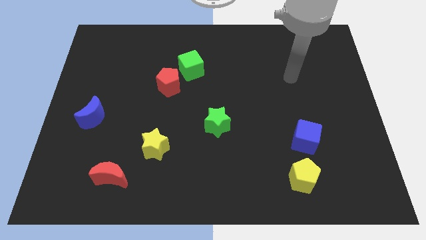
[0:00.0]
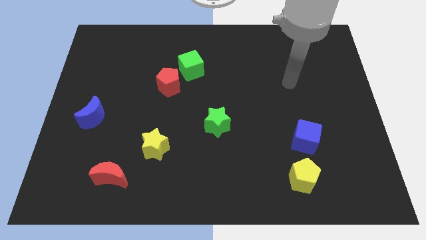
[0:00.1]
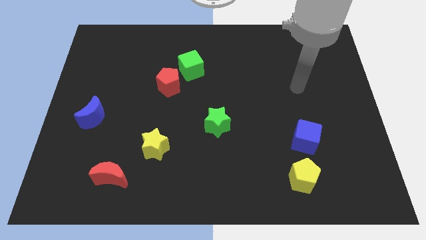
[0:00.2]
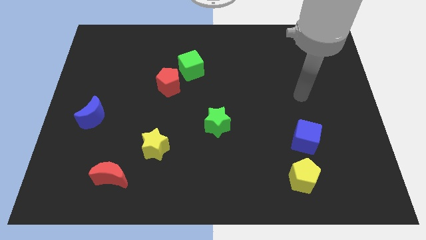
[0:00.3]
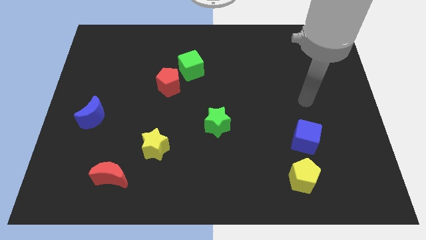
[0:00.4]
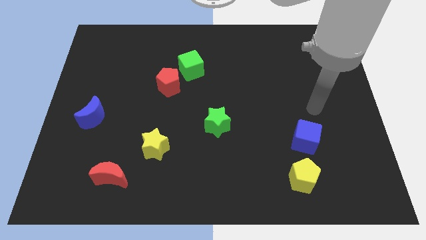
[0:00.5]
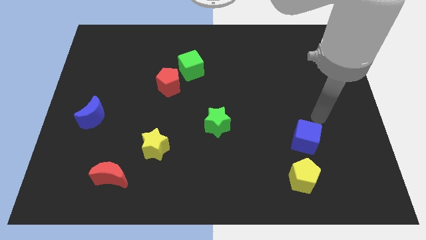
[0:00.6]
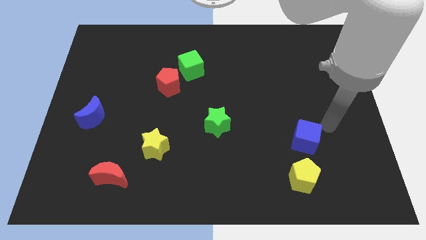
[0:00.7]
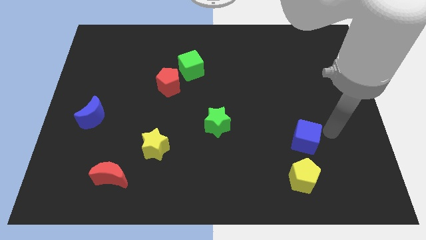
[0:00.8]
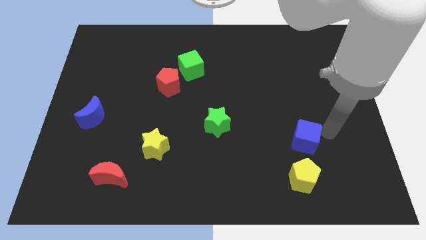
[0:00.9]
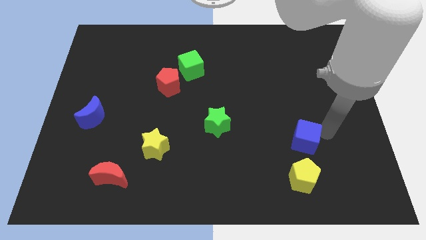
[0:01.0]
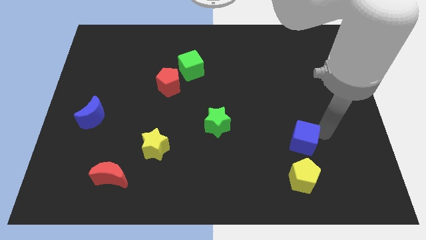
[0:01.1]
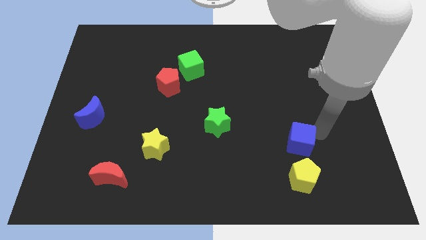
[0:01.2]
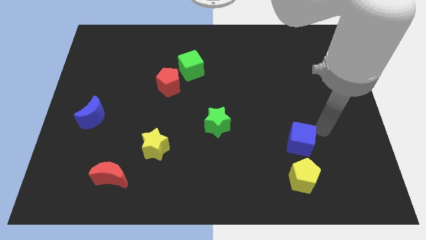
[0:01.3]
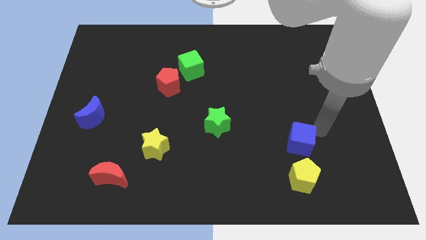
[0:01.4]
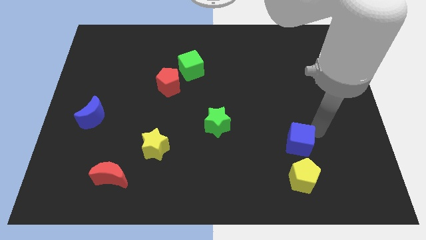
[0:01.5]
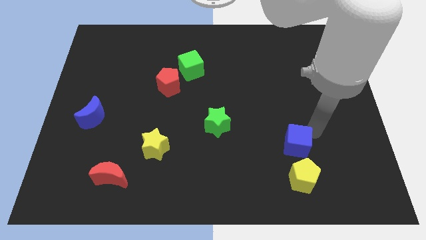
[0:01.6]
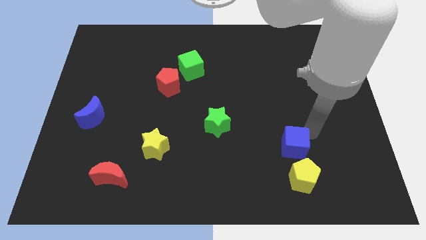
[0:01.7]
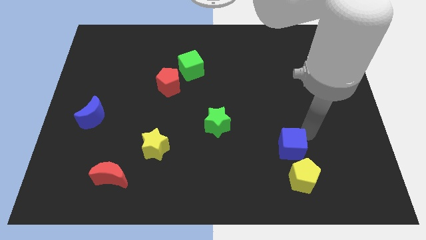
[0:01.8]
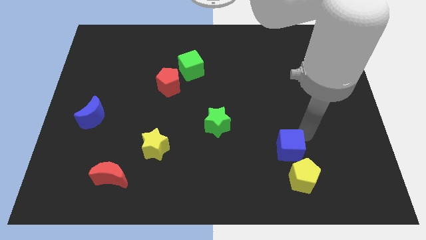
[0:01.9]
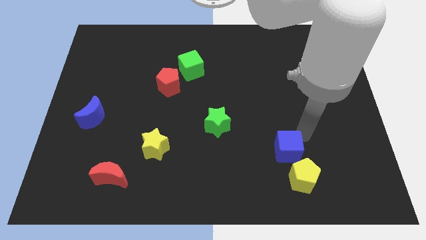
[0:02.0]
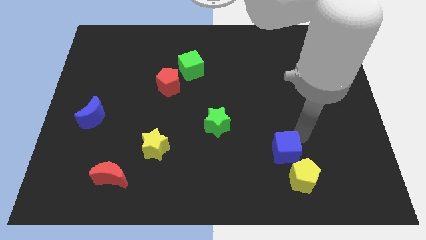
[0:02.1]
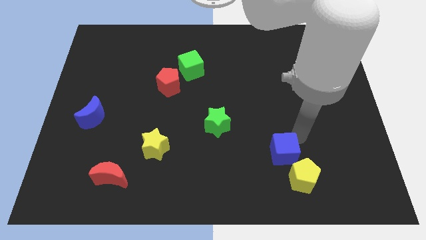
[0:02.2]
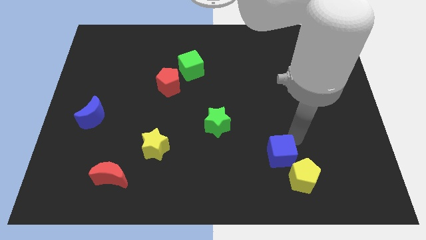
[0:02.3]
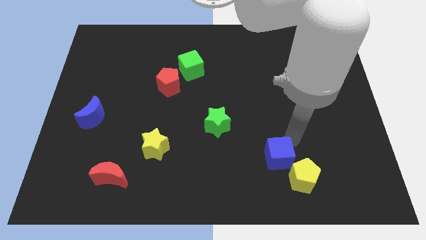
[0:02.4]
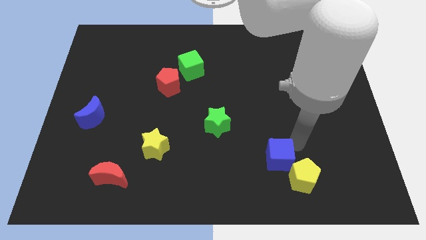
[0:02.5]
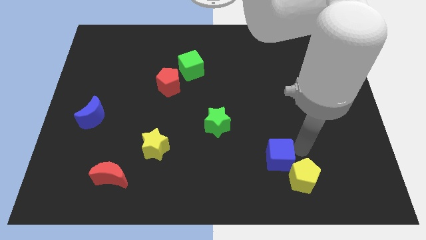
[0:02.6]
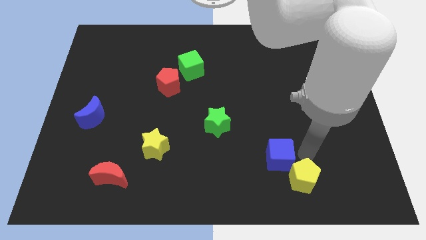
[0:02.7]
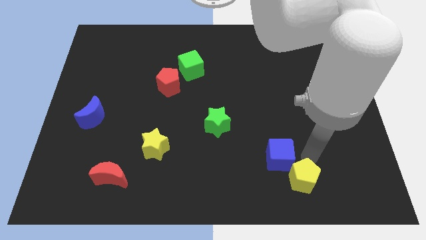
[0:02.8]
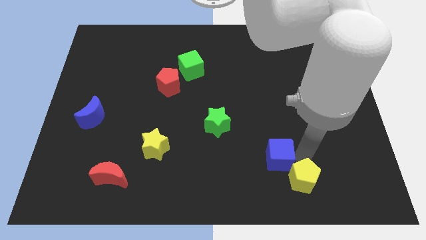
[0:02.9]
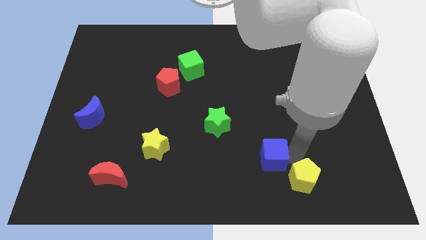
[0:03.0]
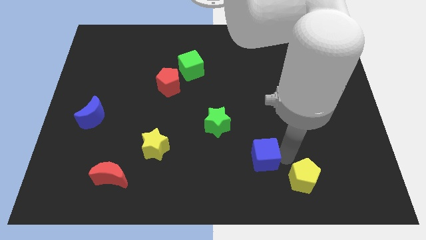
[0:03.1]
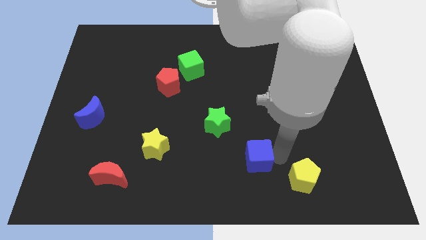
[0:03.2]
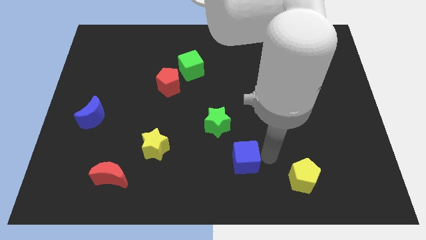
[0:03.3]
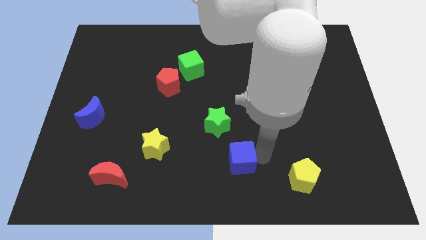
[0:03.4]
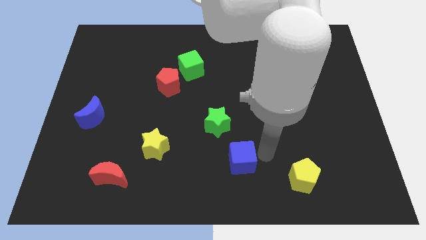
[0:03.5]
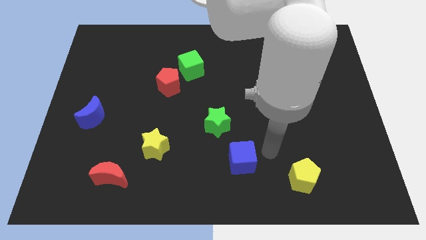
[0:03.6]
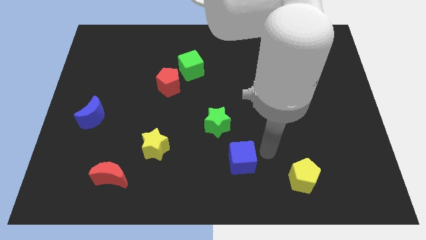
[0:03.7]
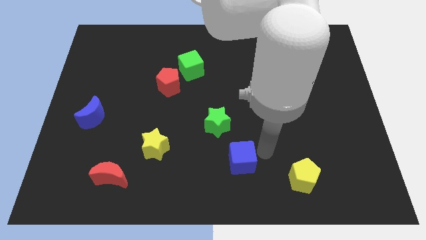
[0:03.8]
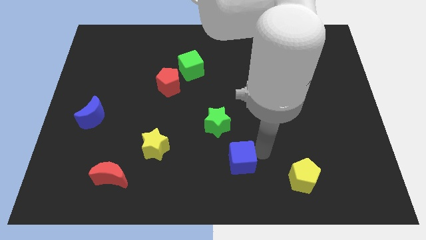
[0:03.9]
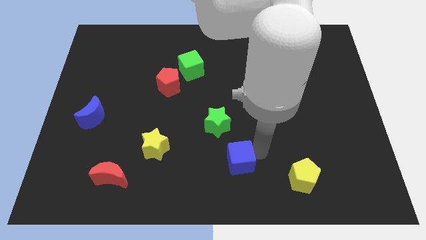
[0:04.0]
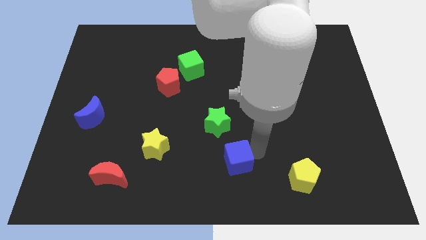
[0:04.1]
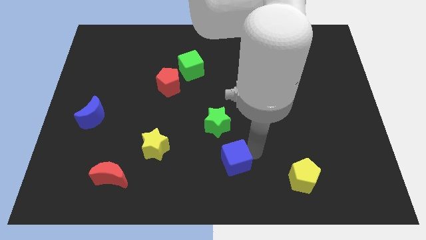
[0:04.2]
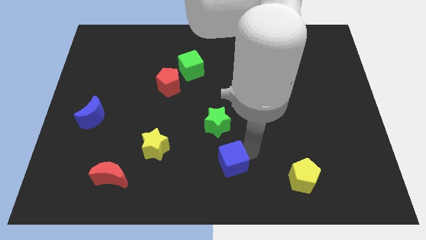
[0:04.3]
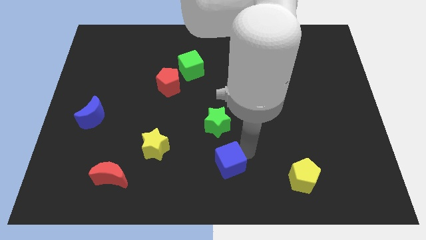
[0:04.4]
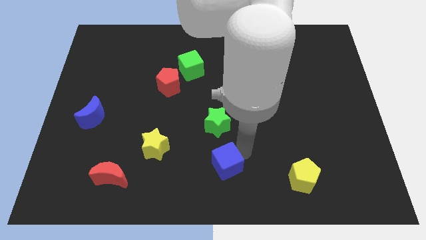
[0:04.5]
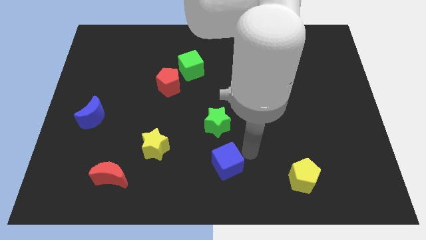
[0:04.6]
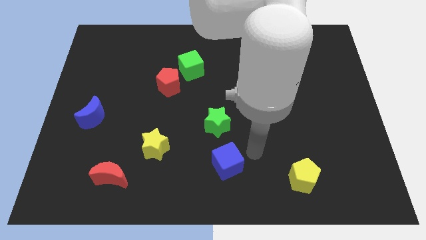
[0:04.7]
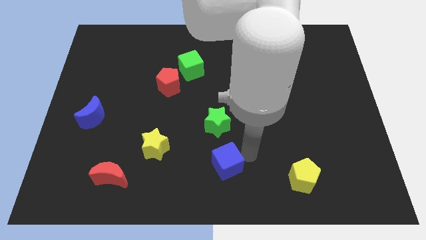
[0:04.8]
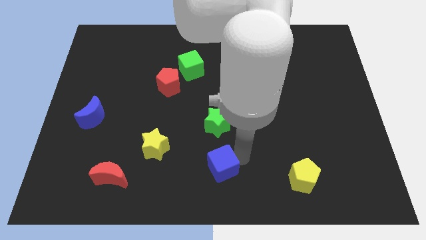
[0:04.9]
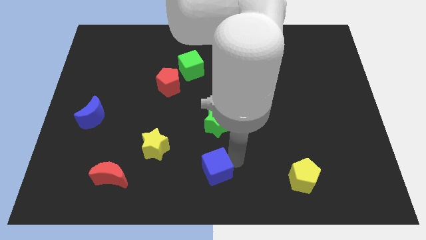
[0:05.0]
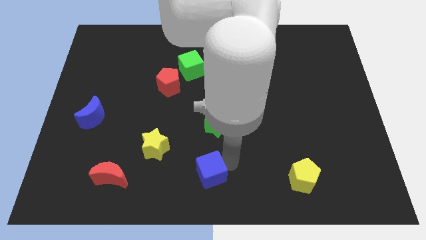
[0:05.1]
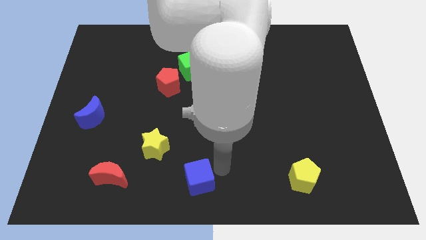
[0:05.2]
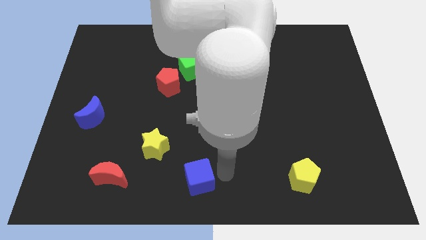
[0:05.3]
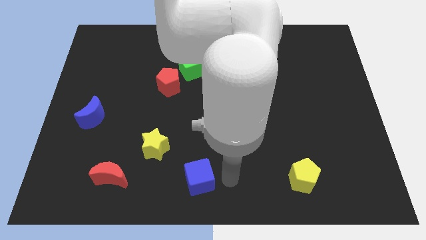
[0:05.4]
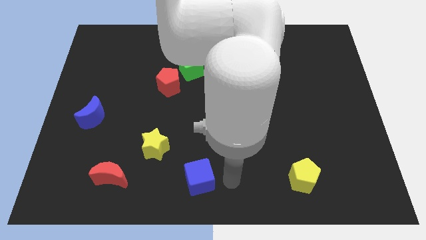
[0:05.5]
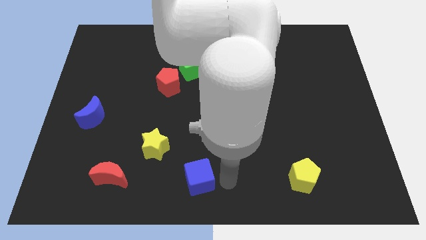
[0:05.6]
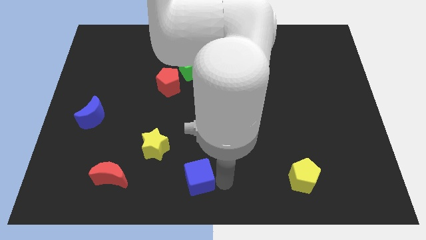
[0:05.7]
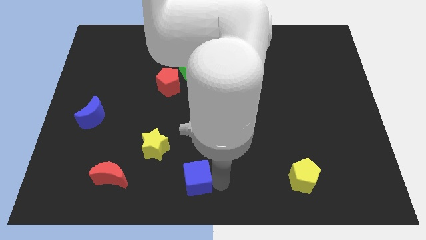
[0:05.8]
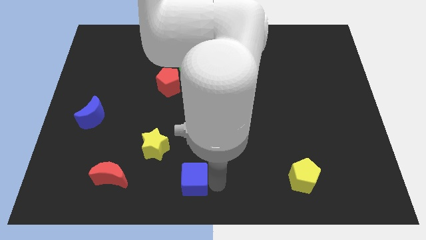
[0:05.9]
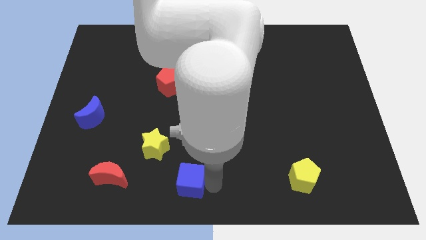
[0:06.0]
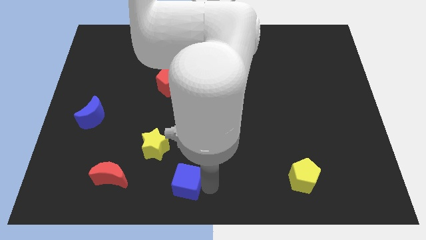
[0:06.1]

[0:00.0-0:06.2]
push the blue cube to the right side of the red moon

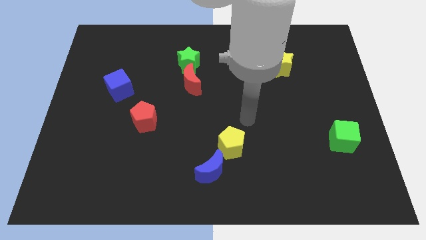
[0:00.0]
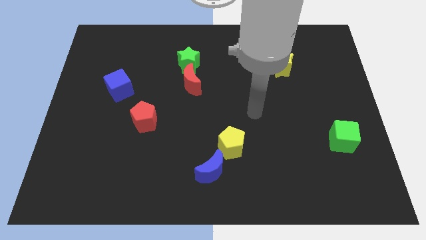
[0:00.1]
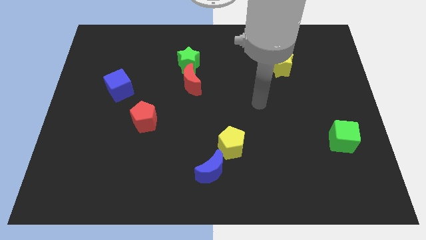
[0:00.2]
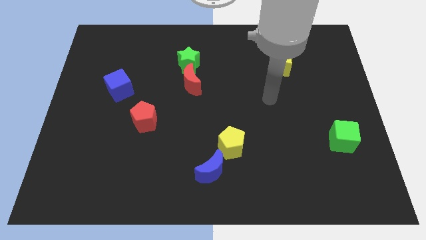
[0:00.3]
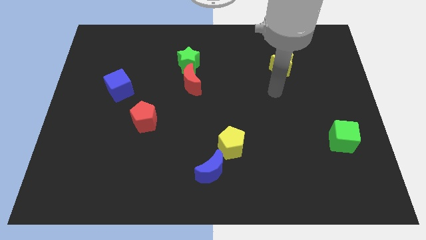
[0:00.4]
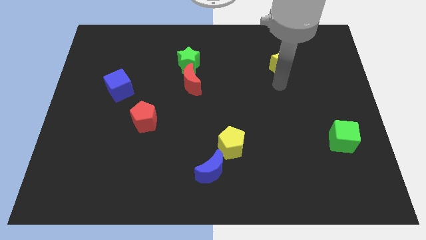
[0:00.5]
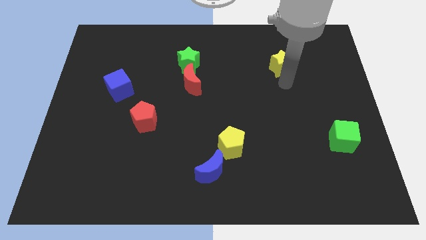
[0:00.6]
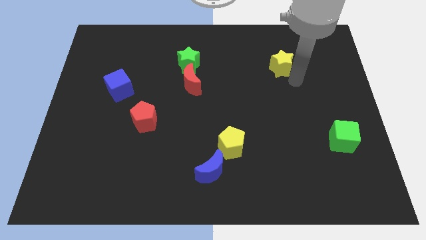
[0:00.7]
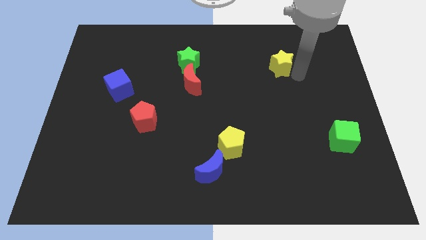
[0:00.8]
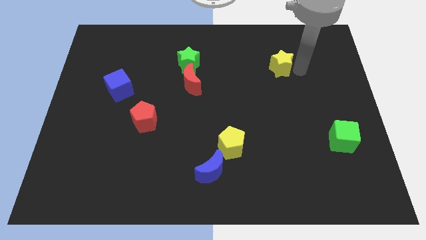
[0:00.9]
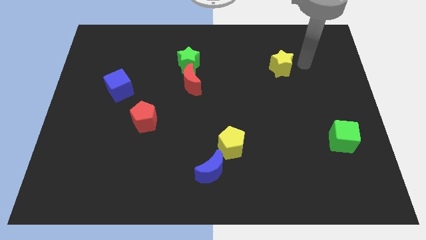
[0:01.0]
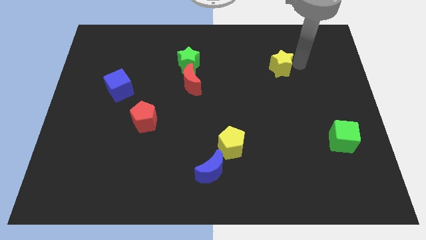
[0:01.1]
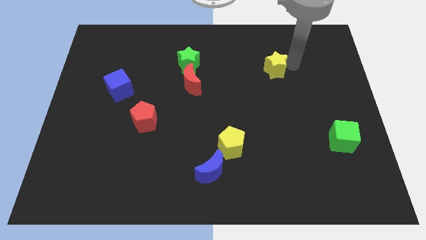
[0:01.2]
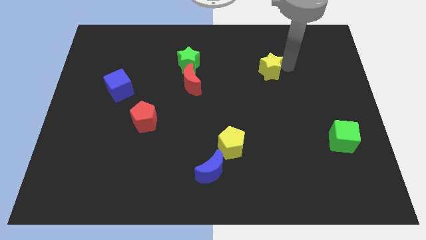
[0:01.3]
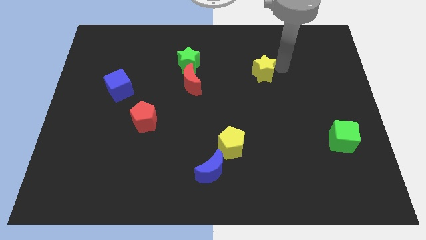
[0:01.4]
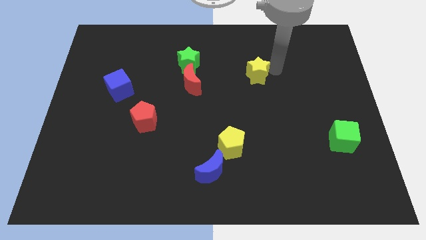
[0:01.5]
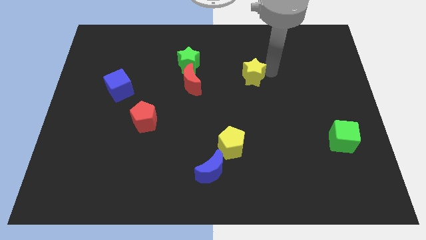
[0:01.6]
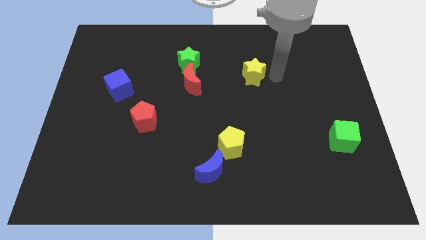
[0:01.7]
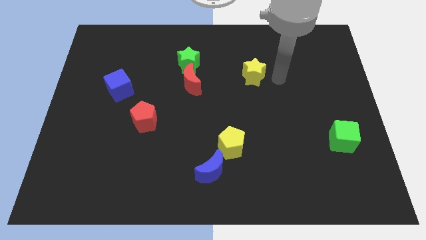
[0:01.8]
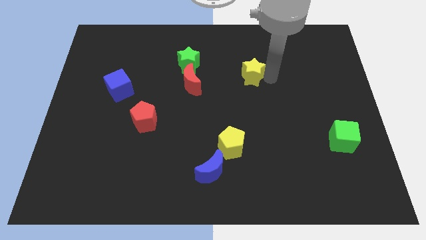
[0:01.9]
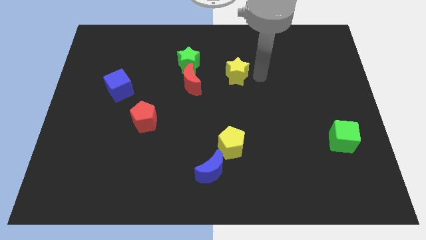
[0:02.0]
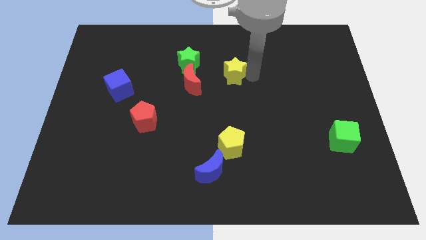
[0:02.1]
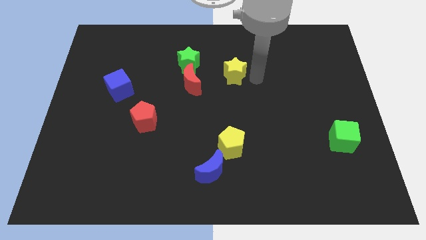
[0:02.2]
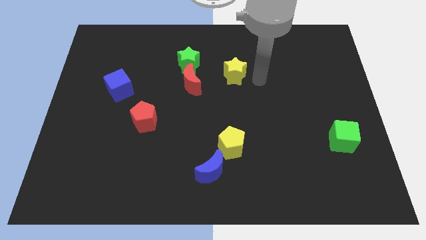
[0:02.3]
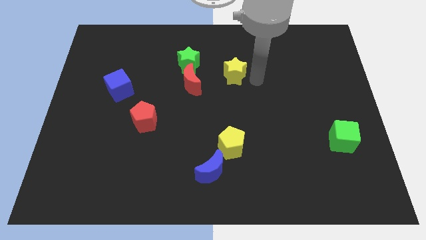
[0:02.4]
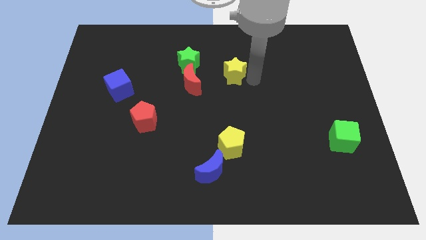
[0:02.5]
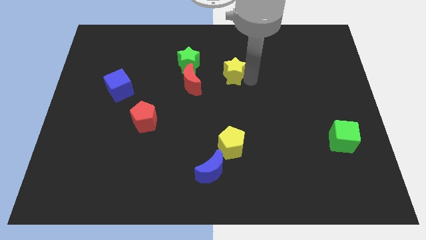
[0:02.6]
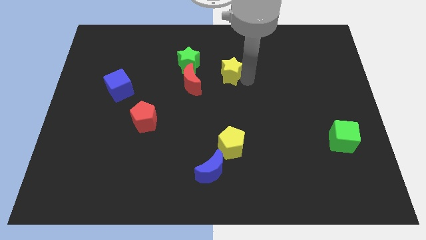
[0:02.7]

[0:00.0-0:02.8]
slide the yellow star to the top right side of the red moon
